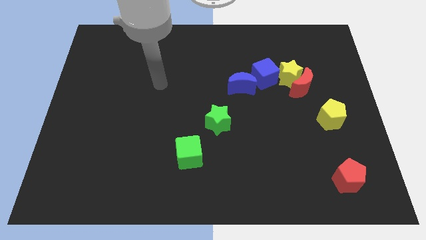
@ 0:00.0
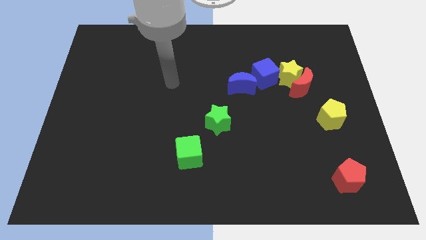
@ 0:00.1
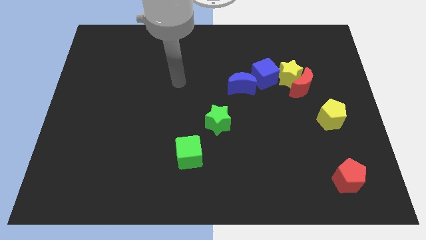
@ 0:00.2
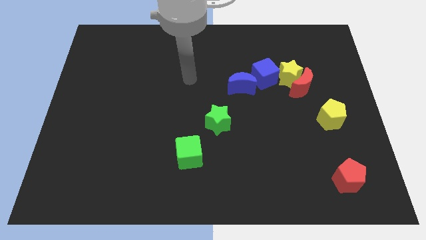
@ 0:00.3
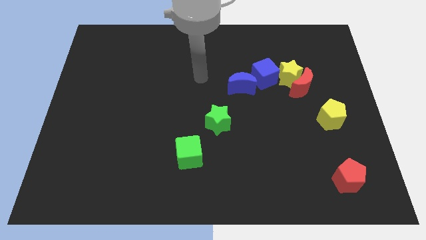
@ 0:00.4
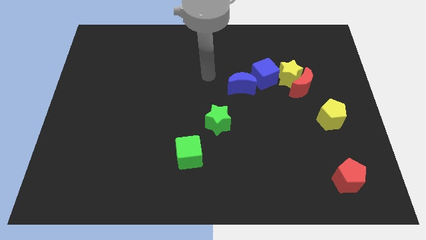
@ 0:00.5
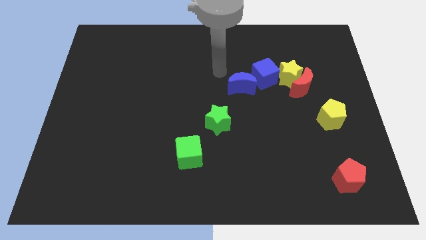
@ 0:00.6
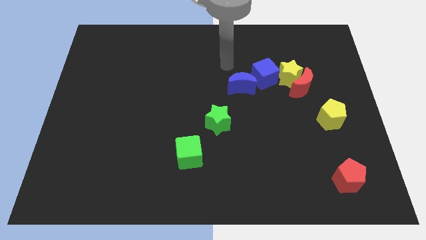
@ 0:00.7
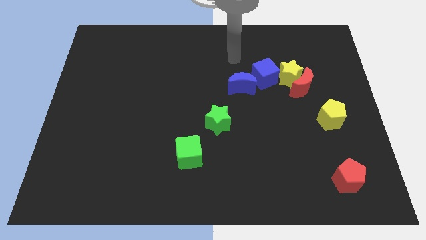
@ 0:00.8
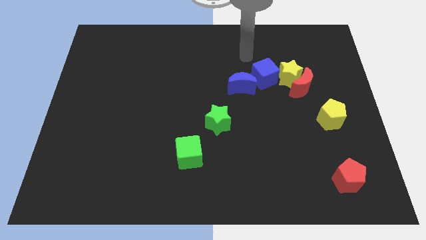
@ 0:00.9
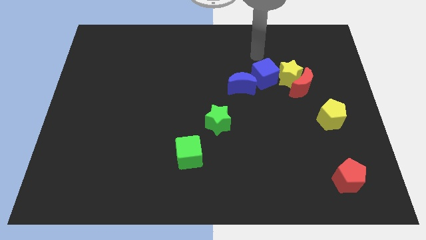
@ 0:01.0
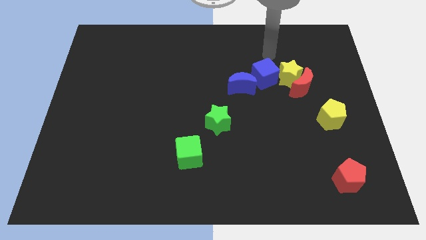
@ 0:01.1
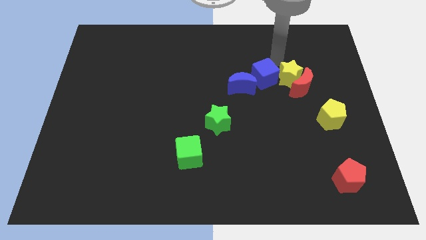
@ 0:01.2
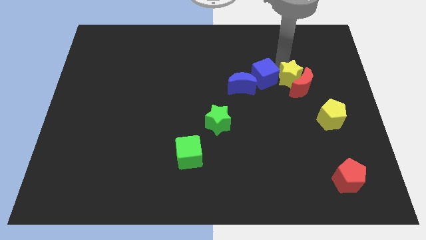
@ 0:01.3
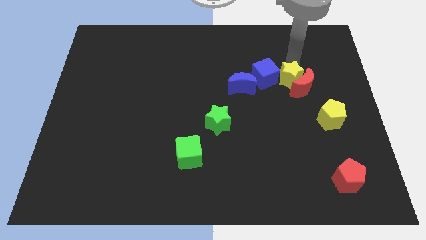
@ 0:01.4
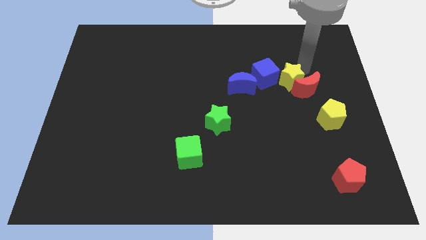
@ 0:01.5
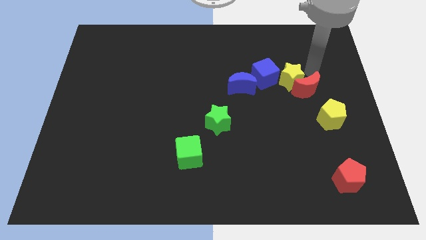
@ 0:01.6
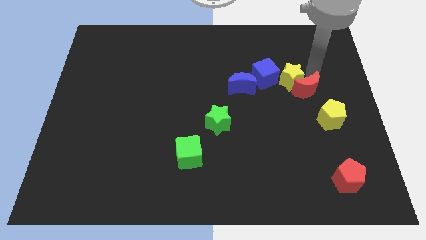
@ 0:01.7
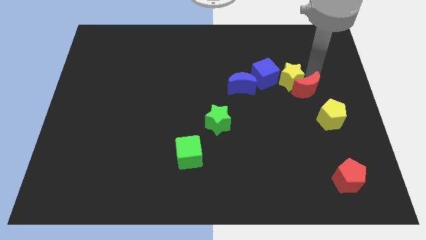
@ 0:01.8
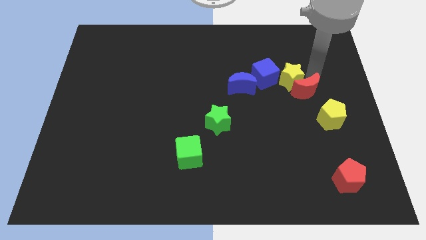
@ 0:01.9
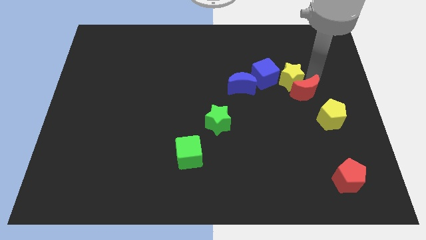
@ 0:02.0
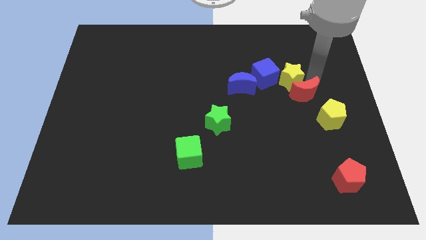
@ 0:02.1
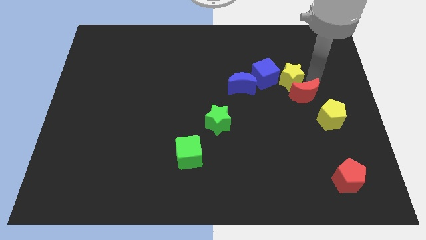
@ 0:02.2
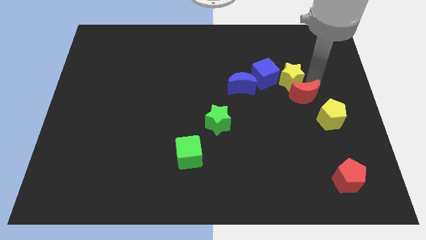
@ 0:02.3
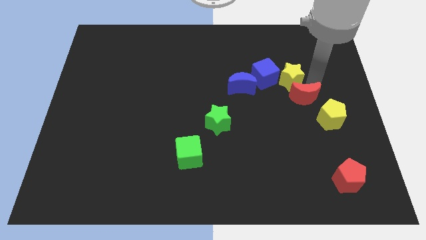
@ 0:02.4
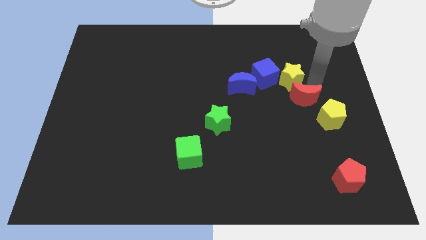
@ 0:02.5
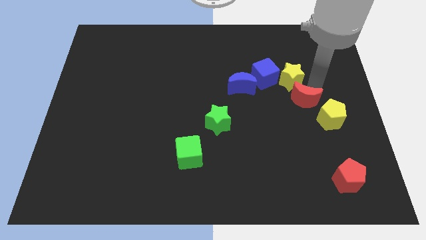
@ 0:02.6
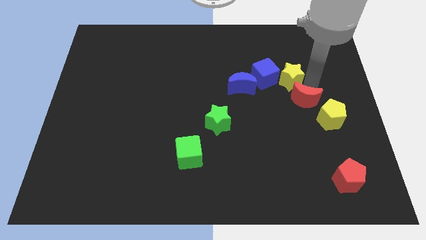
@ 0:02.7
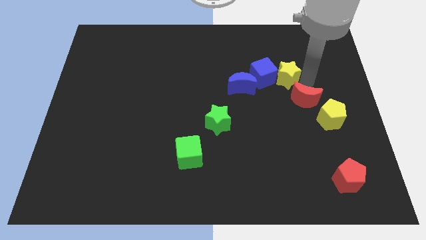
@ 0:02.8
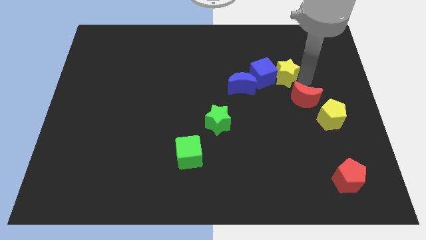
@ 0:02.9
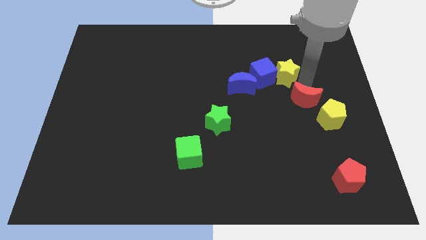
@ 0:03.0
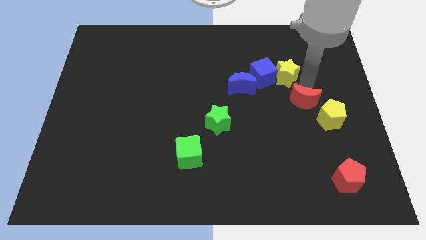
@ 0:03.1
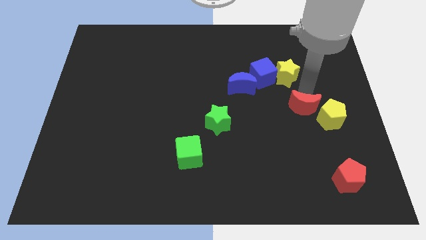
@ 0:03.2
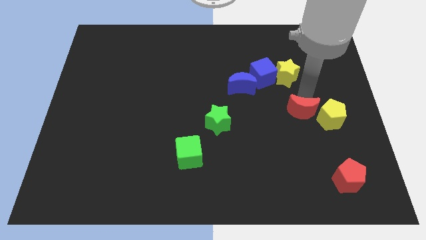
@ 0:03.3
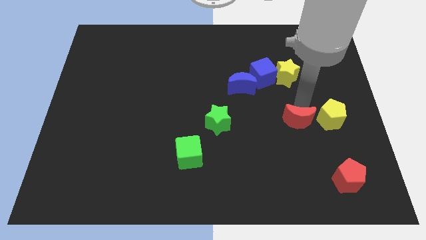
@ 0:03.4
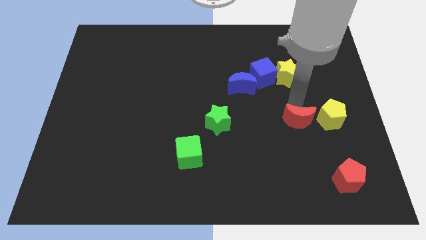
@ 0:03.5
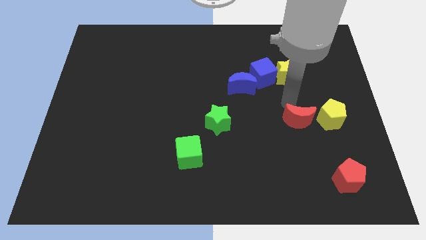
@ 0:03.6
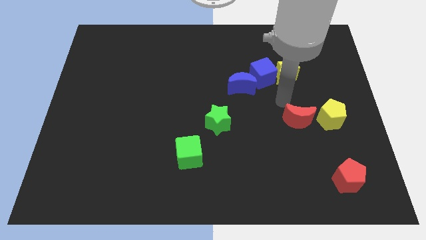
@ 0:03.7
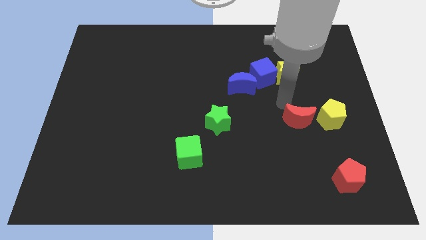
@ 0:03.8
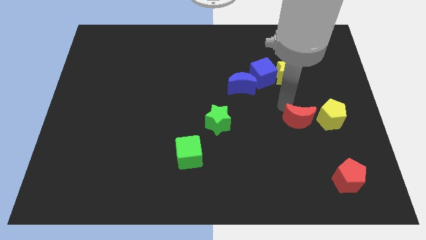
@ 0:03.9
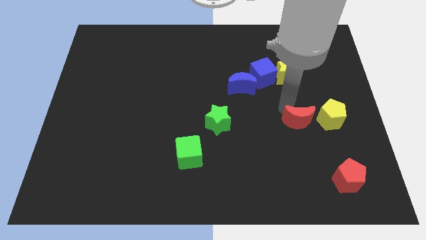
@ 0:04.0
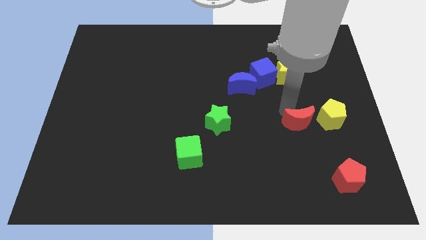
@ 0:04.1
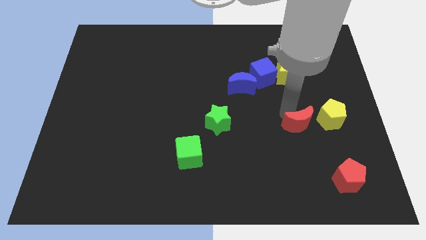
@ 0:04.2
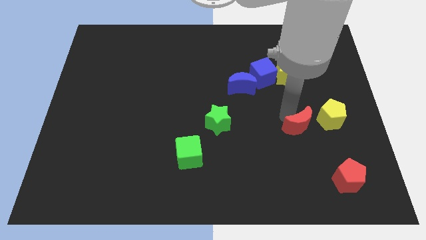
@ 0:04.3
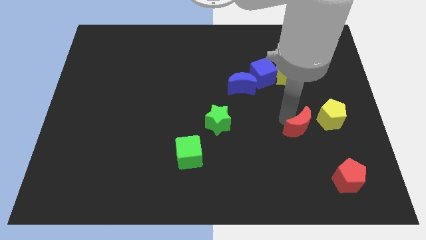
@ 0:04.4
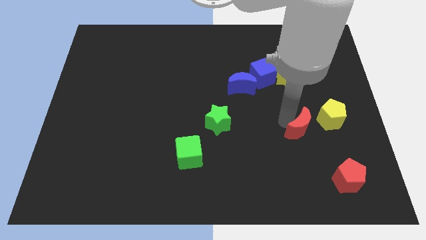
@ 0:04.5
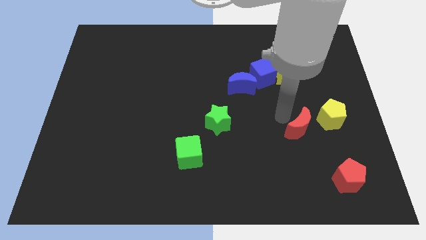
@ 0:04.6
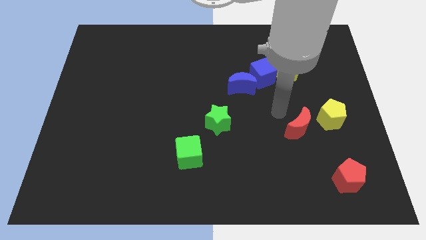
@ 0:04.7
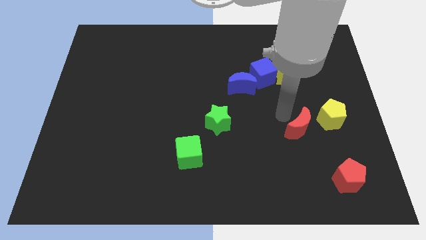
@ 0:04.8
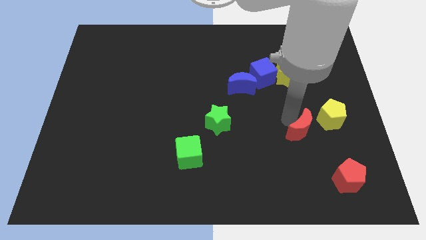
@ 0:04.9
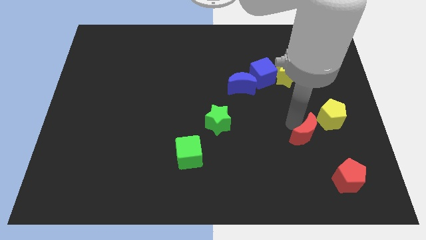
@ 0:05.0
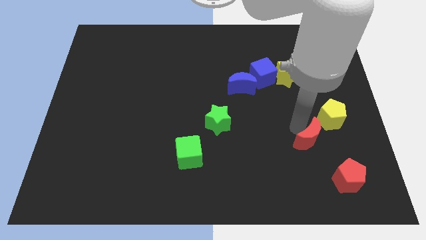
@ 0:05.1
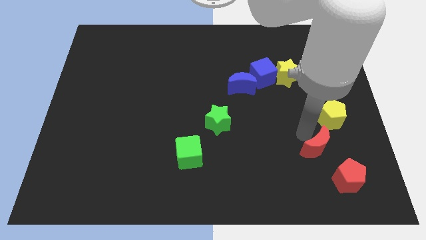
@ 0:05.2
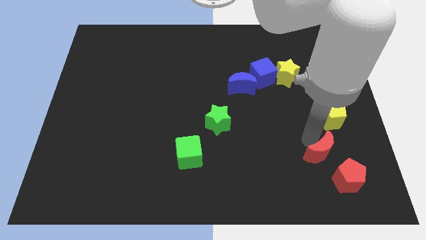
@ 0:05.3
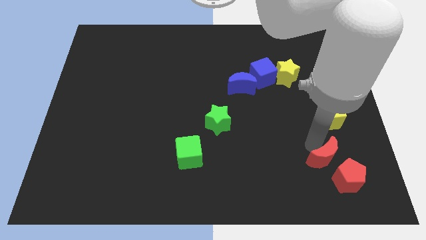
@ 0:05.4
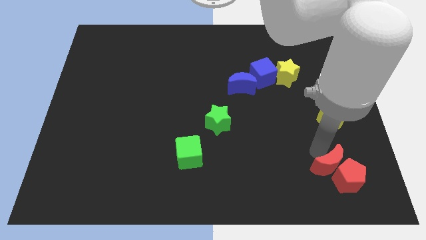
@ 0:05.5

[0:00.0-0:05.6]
slide the red moon next to the red pentagon

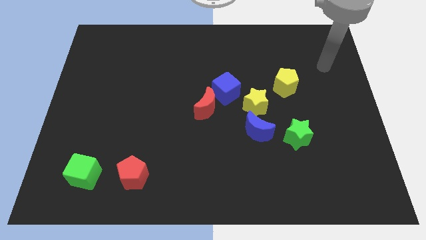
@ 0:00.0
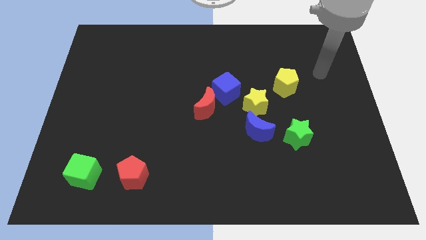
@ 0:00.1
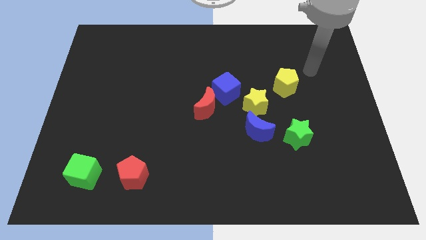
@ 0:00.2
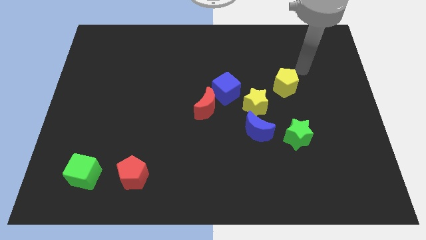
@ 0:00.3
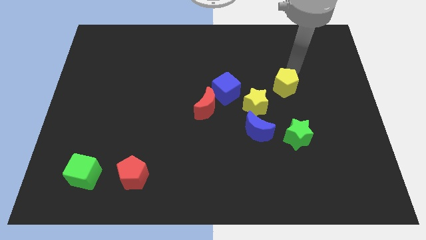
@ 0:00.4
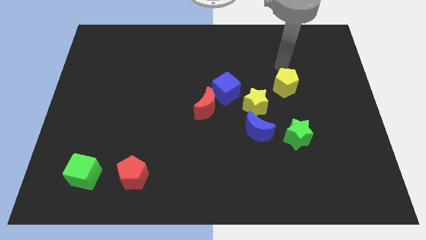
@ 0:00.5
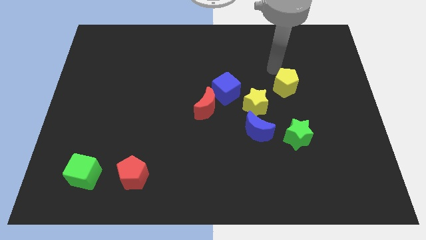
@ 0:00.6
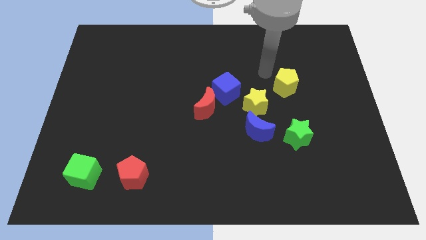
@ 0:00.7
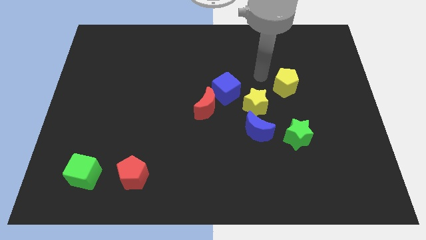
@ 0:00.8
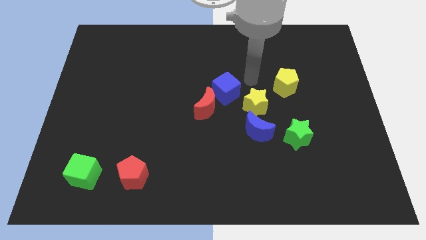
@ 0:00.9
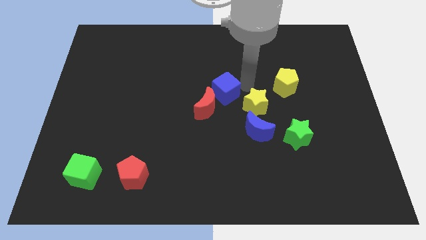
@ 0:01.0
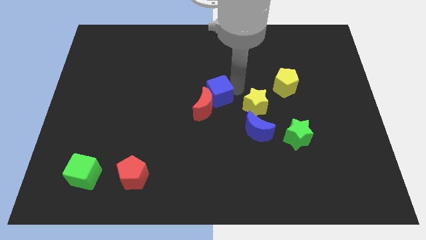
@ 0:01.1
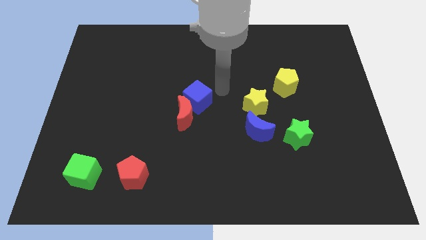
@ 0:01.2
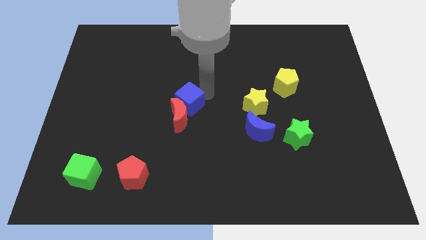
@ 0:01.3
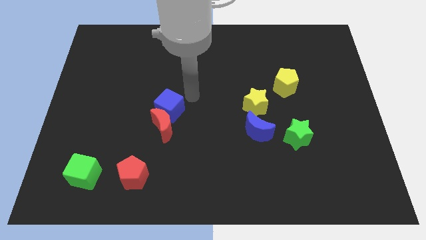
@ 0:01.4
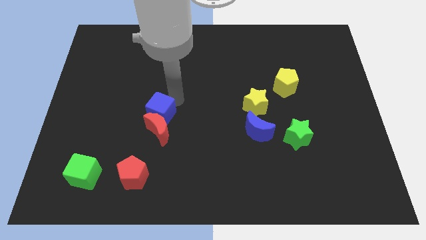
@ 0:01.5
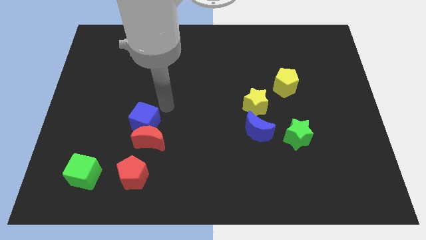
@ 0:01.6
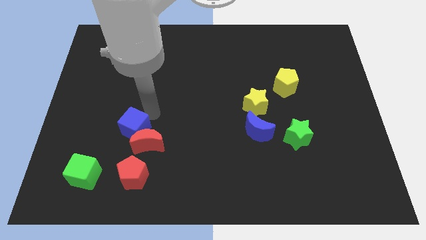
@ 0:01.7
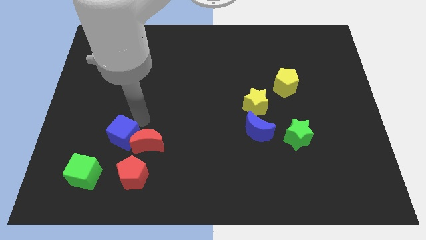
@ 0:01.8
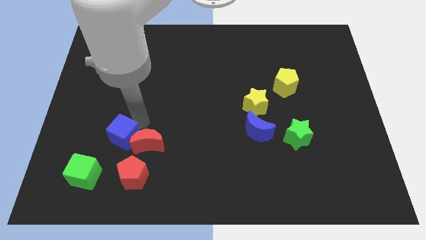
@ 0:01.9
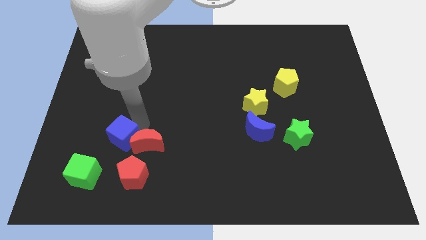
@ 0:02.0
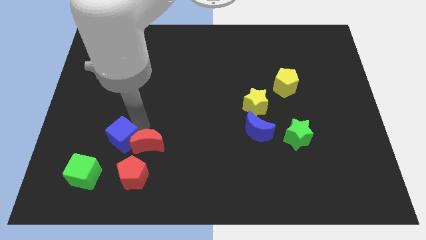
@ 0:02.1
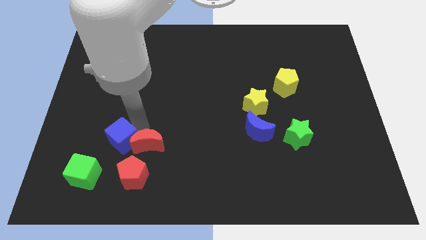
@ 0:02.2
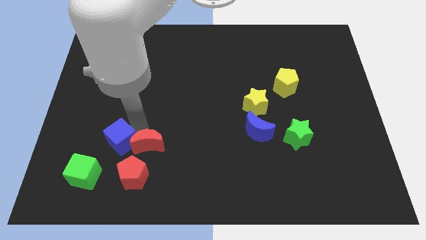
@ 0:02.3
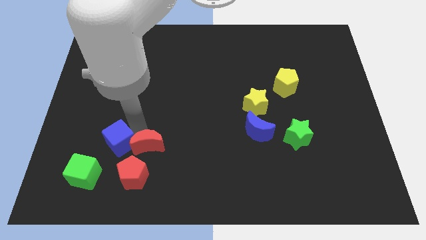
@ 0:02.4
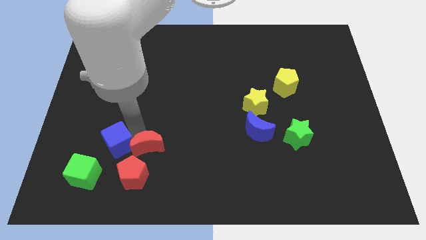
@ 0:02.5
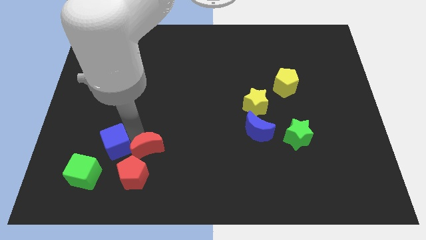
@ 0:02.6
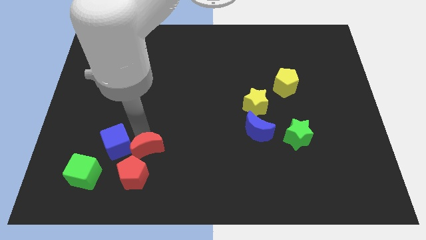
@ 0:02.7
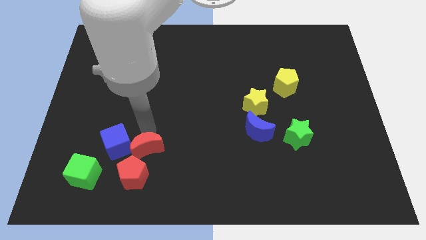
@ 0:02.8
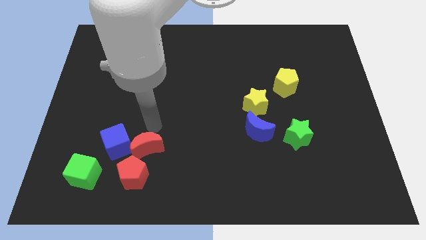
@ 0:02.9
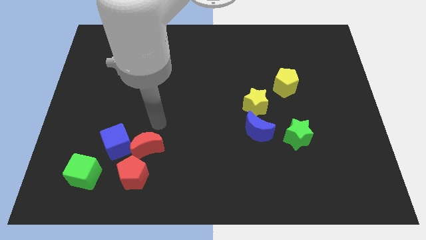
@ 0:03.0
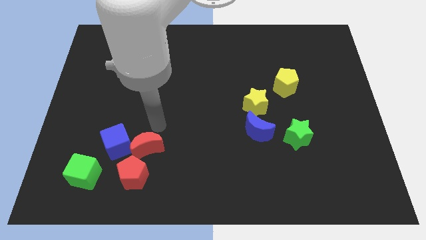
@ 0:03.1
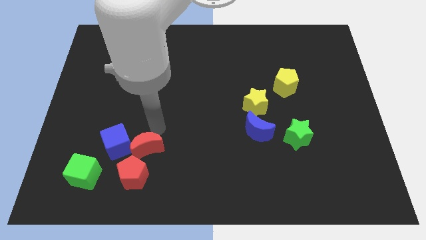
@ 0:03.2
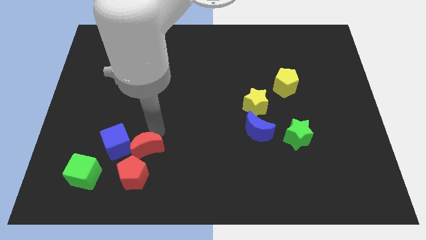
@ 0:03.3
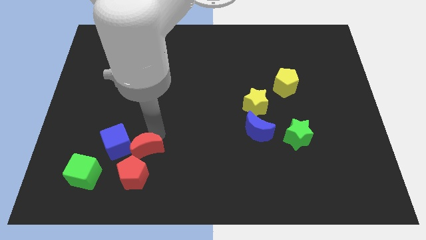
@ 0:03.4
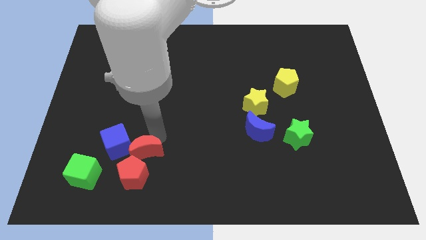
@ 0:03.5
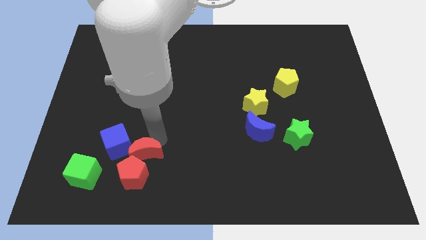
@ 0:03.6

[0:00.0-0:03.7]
push the red moon next to the red pentagon
